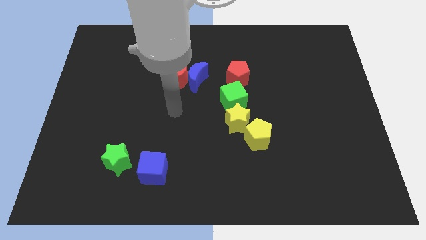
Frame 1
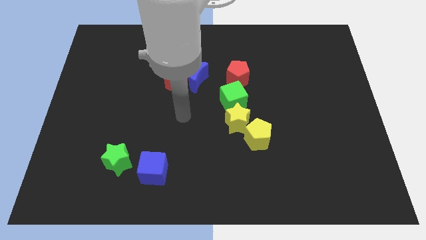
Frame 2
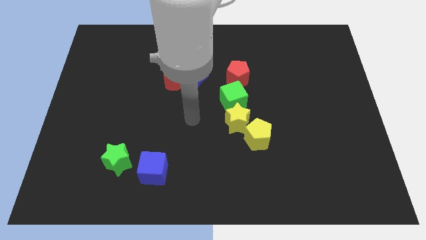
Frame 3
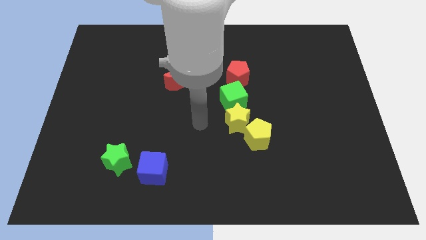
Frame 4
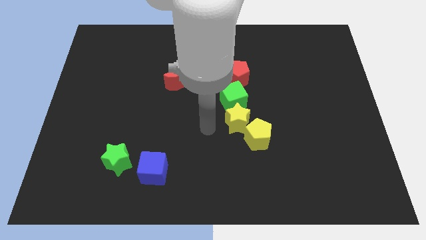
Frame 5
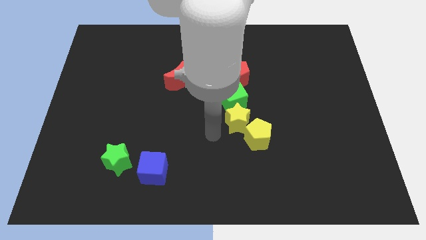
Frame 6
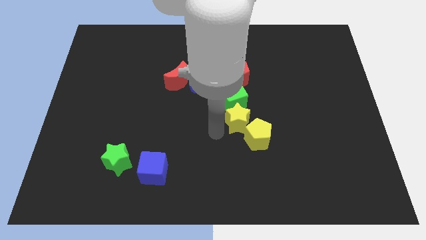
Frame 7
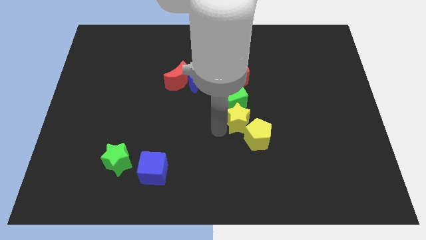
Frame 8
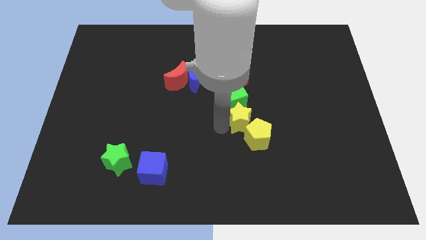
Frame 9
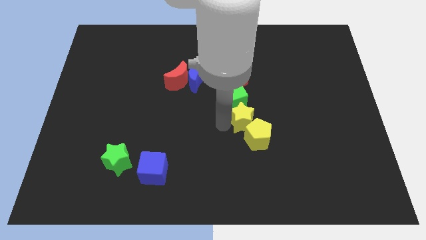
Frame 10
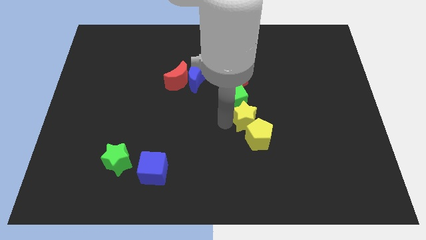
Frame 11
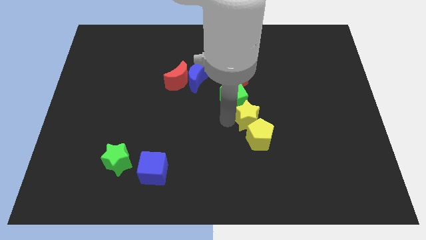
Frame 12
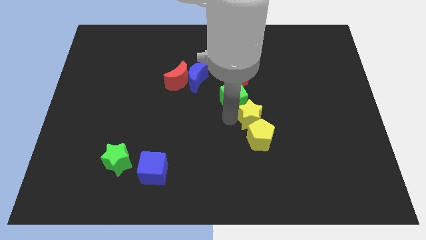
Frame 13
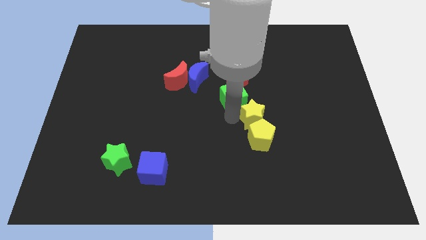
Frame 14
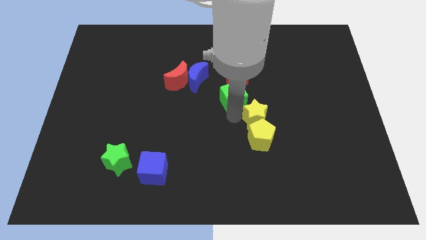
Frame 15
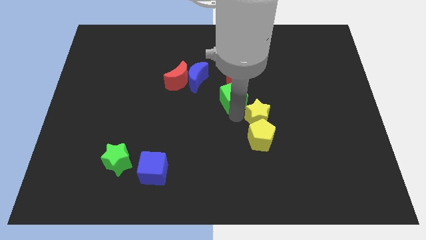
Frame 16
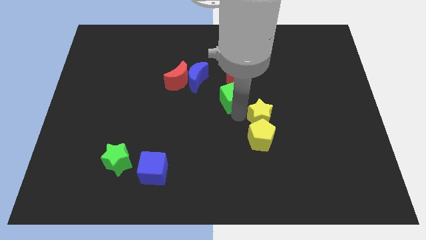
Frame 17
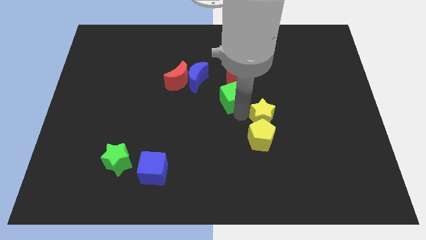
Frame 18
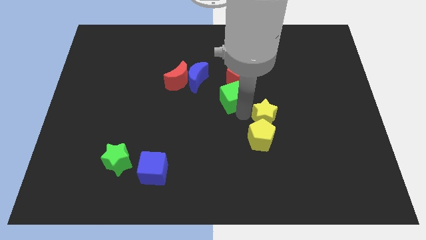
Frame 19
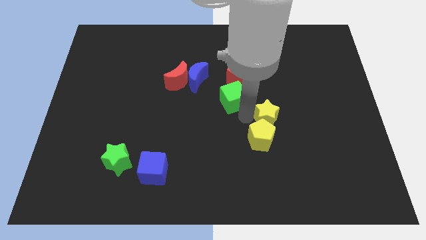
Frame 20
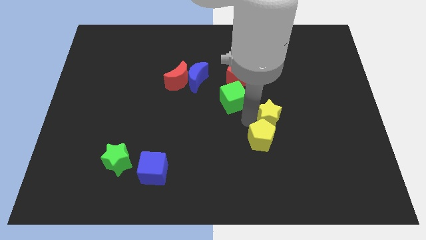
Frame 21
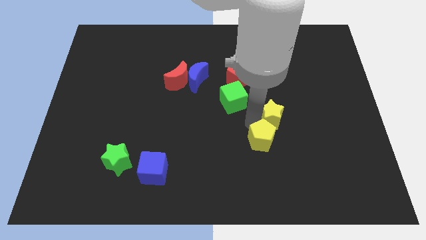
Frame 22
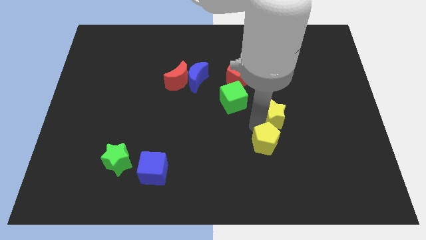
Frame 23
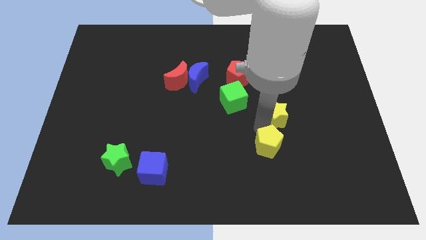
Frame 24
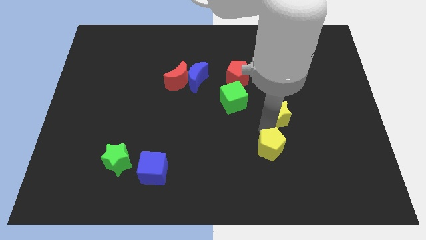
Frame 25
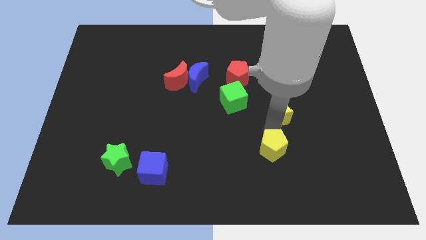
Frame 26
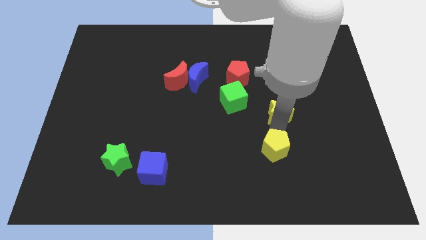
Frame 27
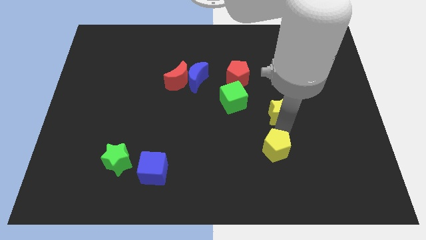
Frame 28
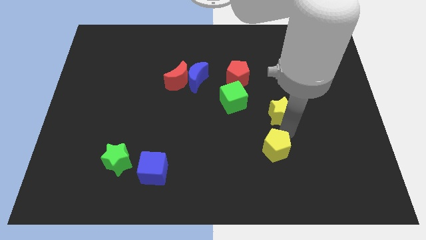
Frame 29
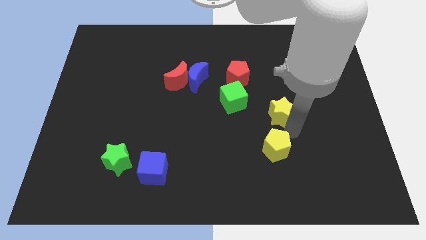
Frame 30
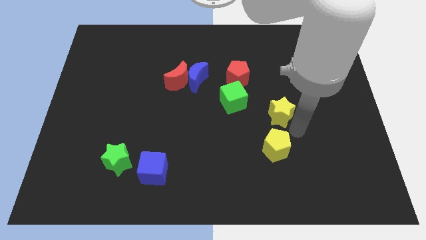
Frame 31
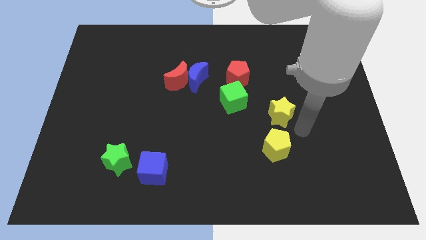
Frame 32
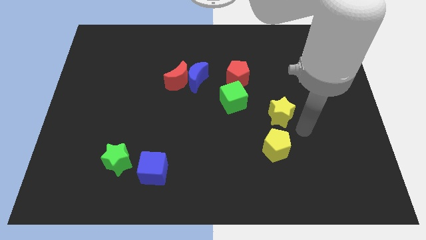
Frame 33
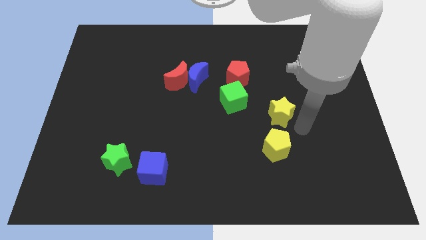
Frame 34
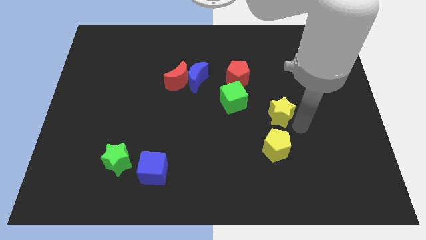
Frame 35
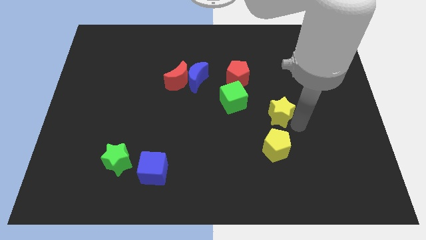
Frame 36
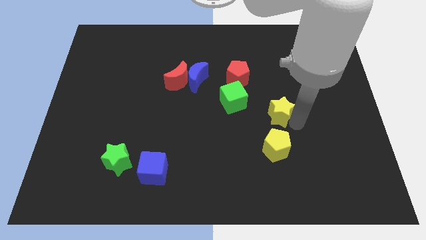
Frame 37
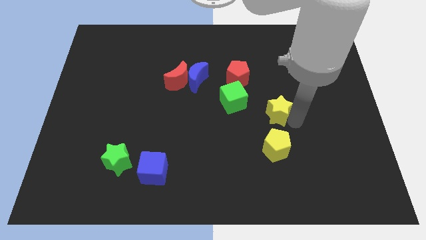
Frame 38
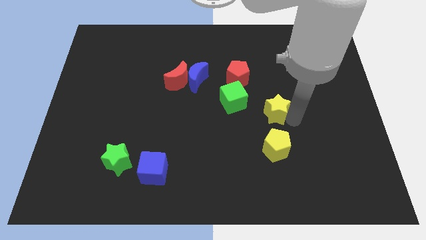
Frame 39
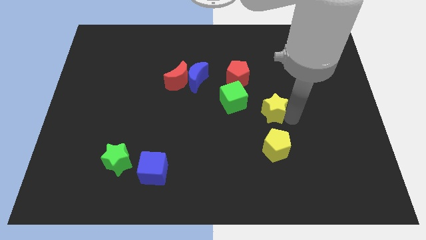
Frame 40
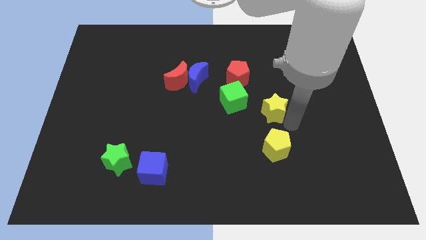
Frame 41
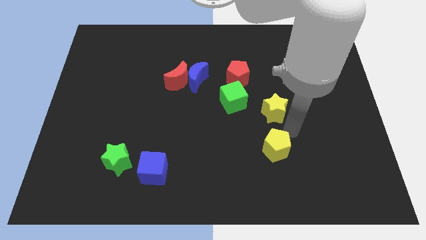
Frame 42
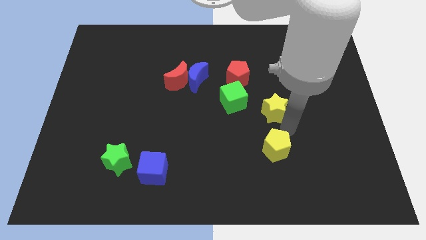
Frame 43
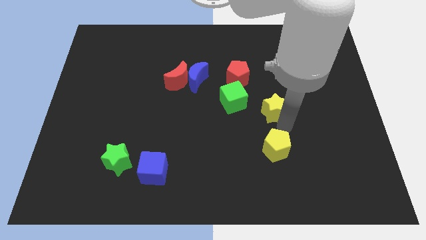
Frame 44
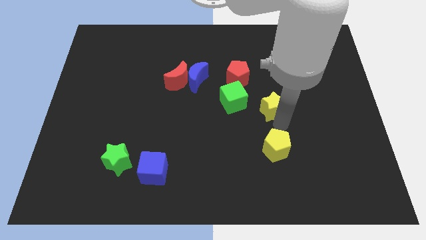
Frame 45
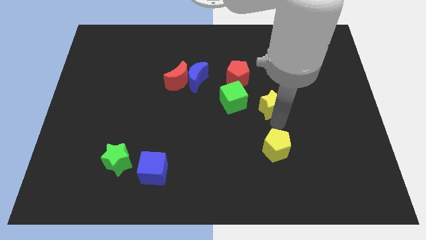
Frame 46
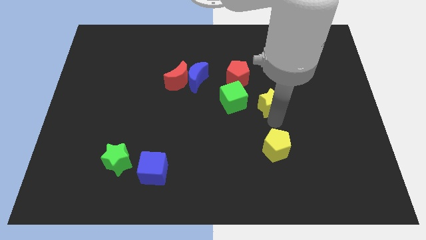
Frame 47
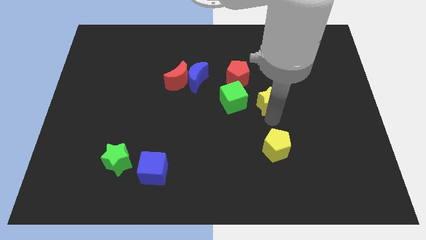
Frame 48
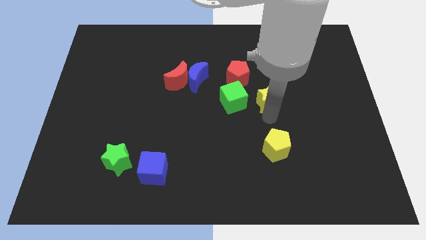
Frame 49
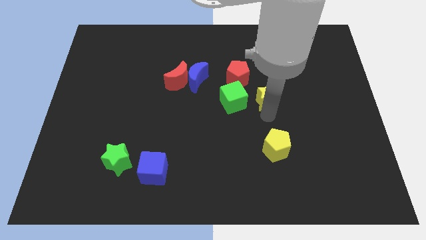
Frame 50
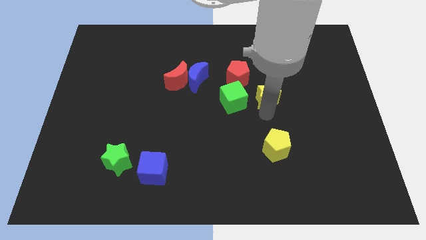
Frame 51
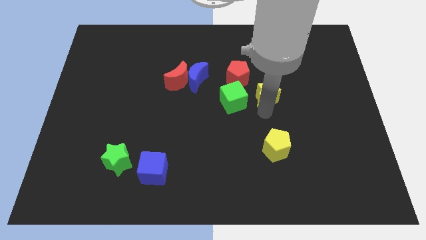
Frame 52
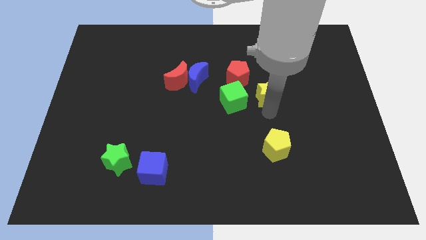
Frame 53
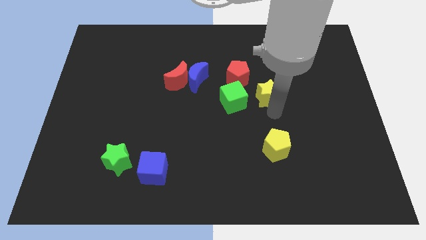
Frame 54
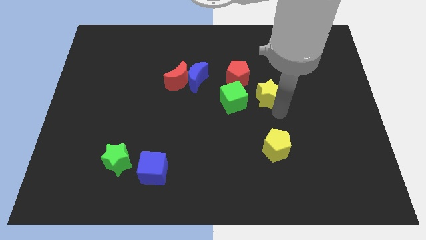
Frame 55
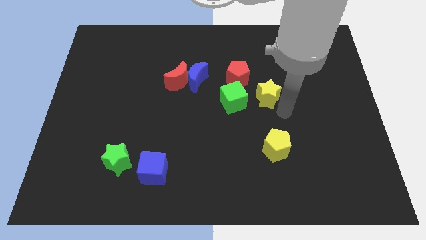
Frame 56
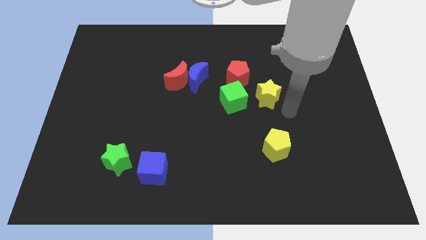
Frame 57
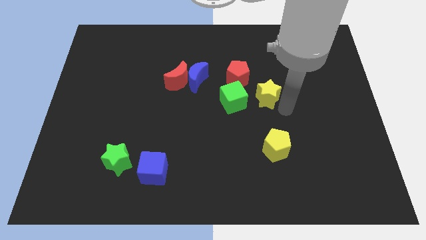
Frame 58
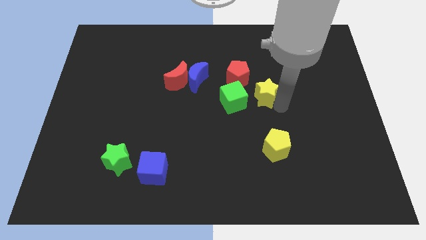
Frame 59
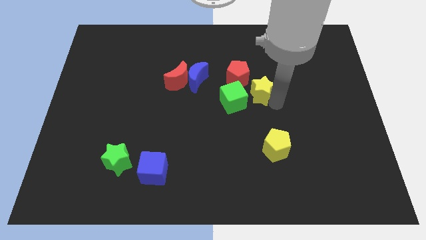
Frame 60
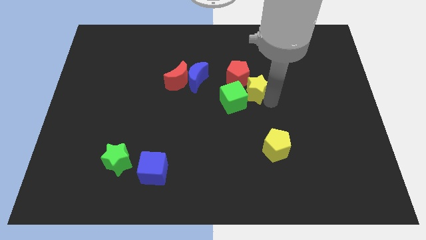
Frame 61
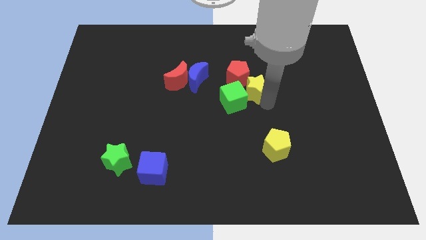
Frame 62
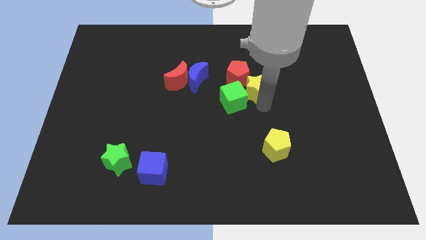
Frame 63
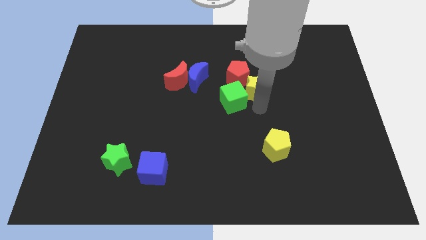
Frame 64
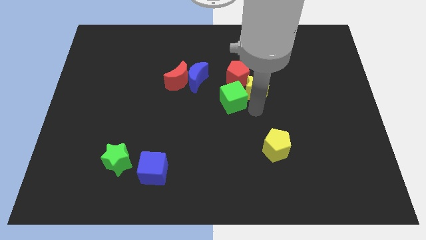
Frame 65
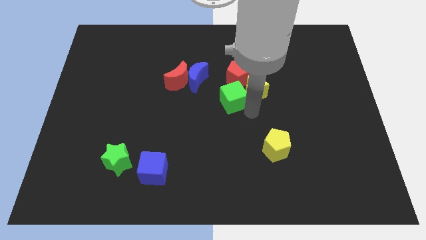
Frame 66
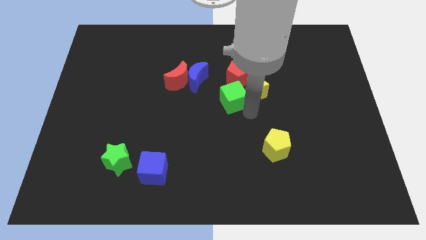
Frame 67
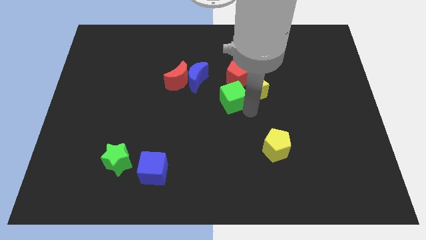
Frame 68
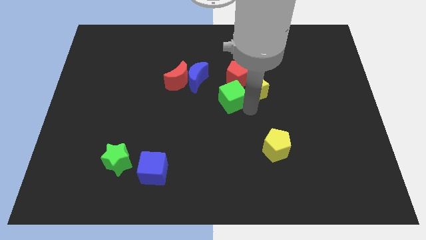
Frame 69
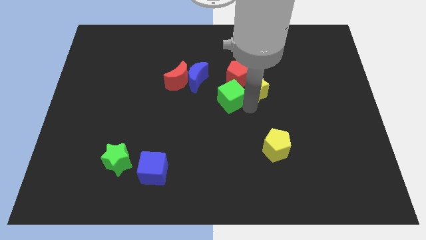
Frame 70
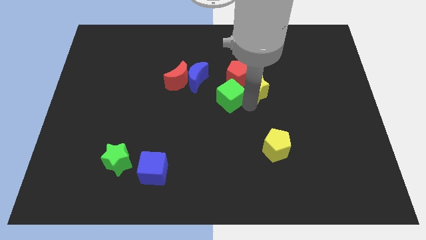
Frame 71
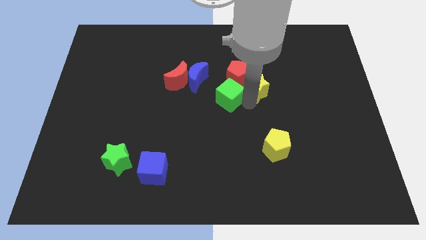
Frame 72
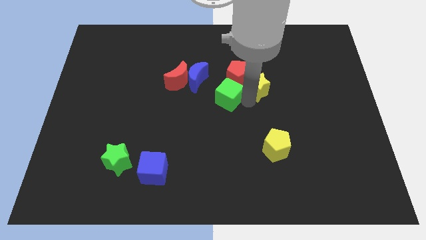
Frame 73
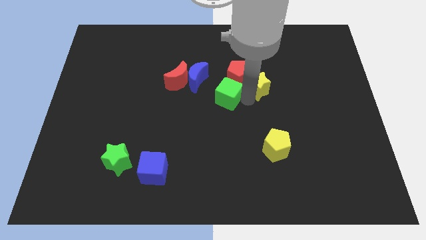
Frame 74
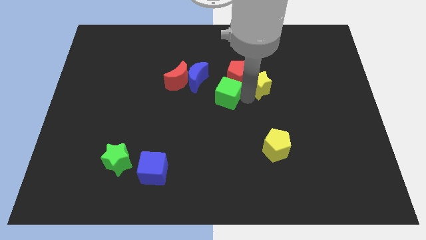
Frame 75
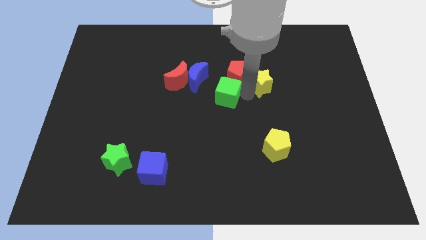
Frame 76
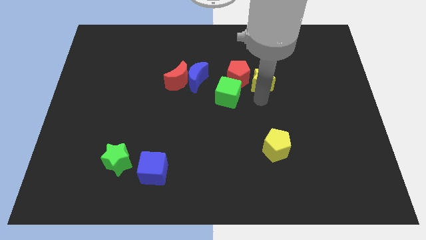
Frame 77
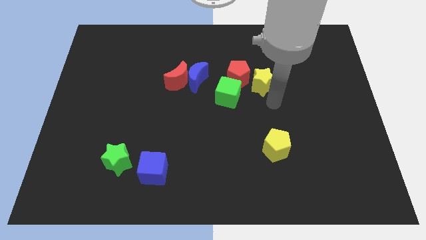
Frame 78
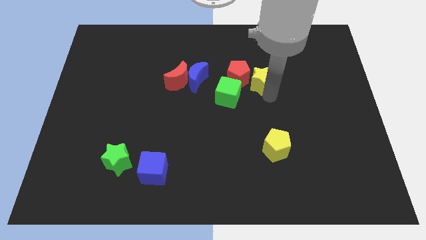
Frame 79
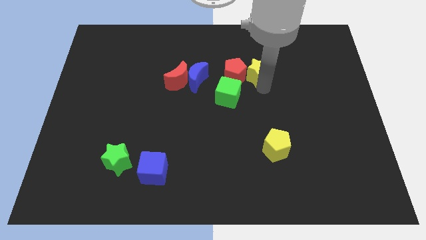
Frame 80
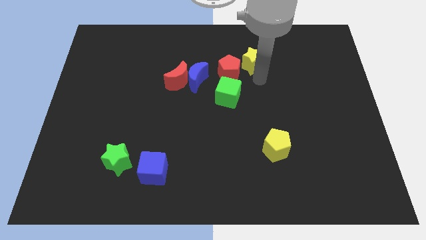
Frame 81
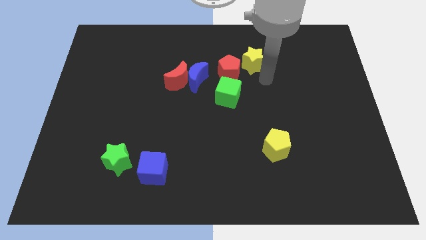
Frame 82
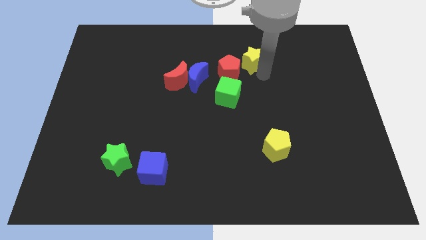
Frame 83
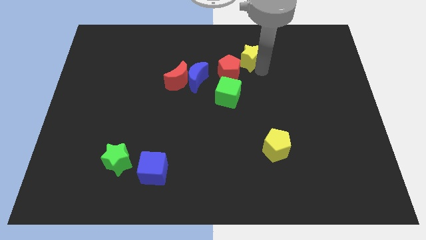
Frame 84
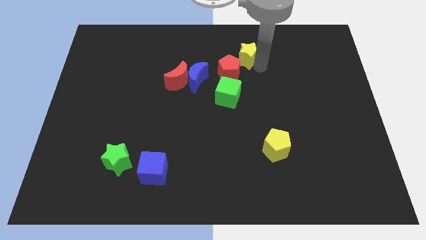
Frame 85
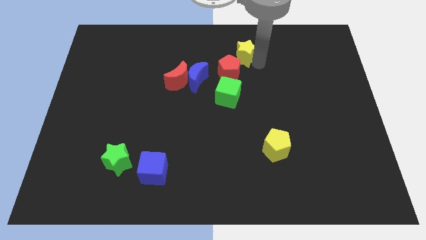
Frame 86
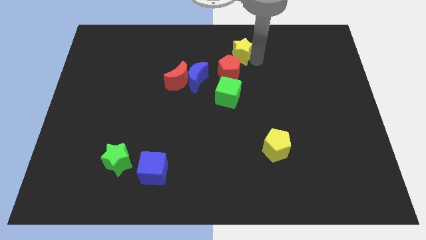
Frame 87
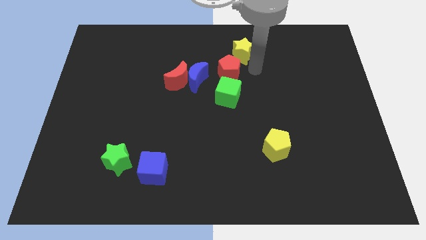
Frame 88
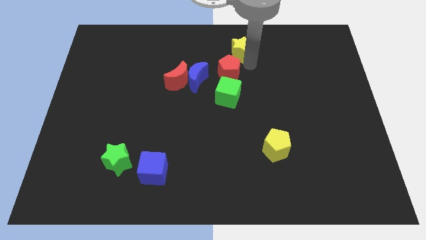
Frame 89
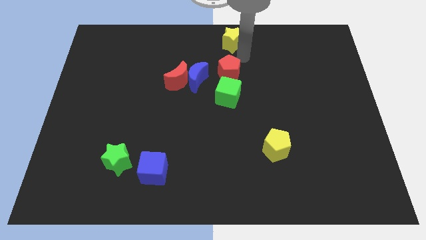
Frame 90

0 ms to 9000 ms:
put the yellow star to the towards your base
